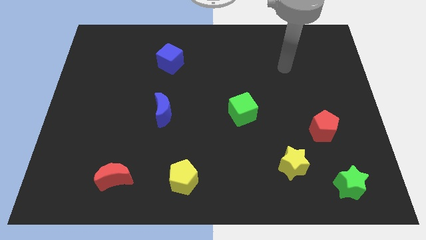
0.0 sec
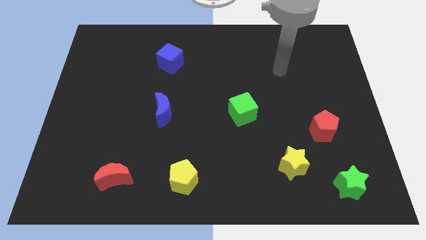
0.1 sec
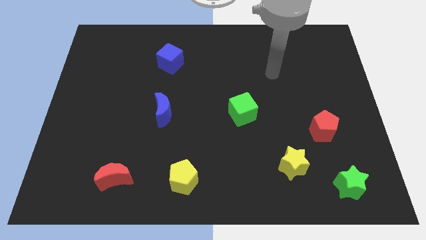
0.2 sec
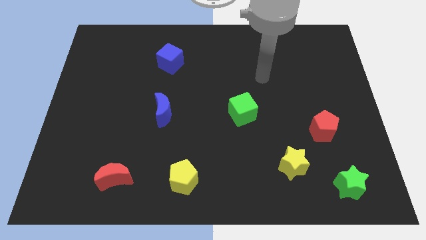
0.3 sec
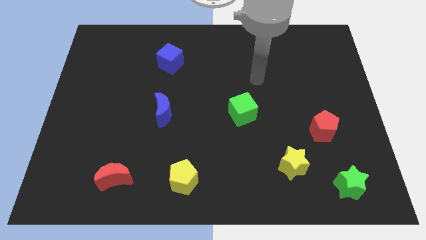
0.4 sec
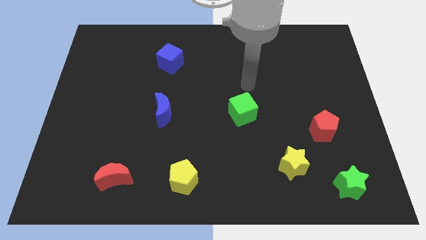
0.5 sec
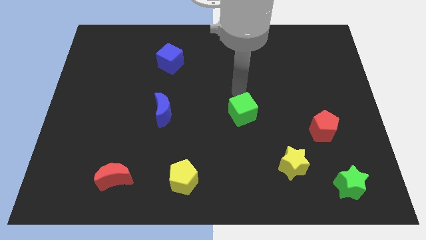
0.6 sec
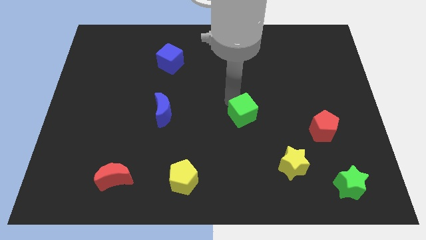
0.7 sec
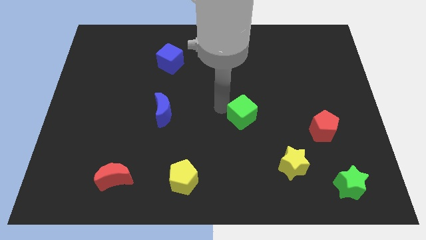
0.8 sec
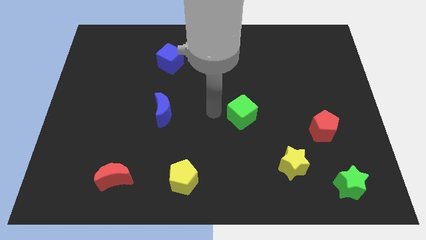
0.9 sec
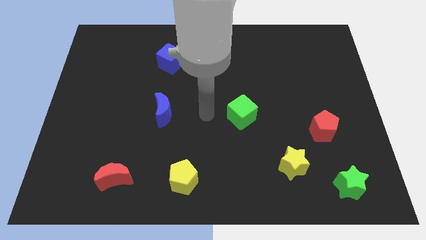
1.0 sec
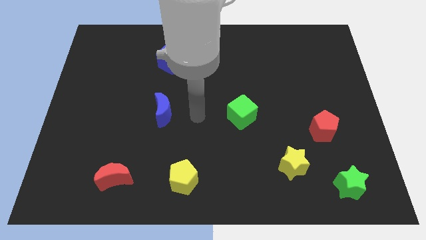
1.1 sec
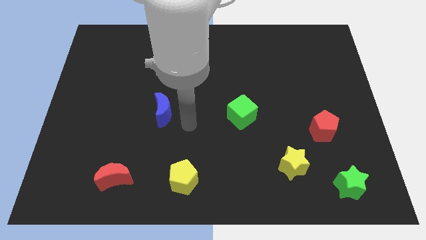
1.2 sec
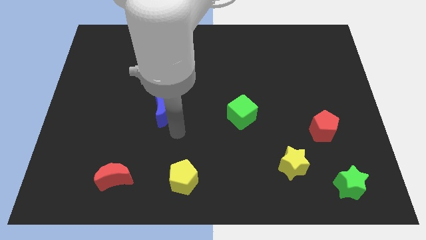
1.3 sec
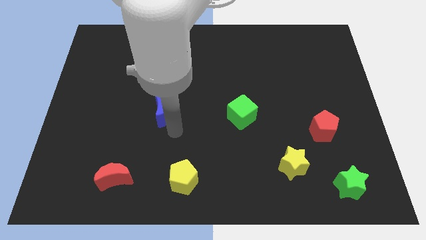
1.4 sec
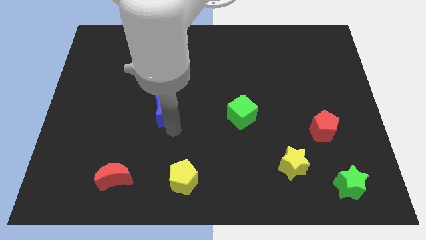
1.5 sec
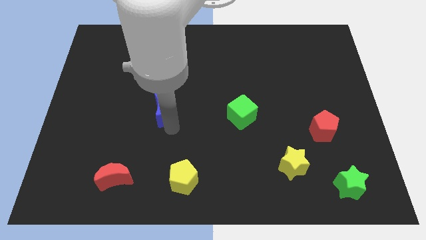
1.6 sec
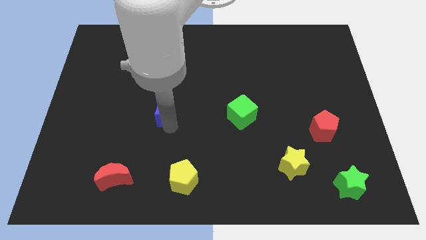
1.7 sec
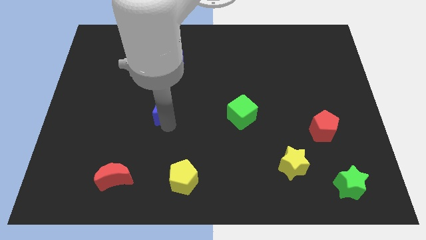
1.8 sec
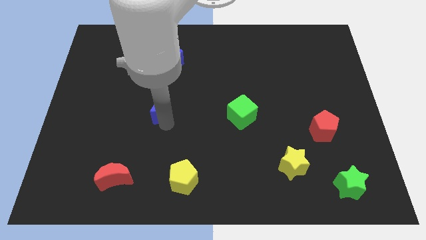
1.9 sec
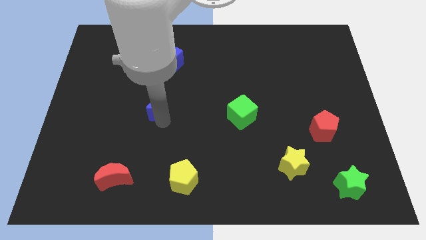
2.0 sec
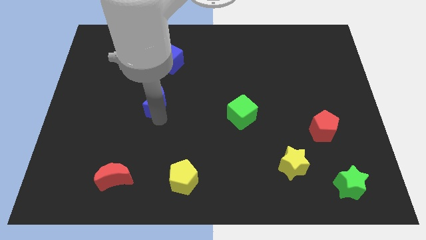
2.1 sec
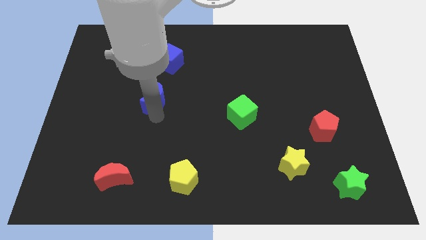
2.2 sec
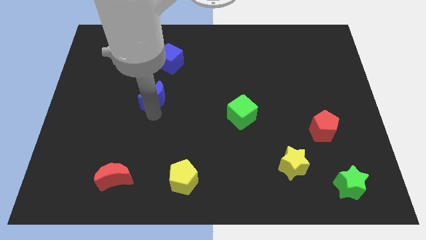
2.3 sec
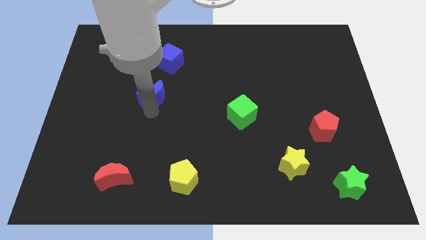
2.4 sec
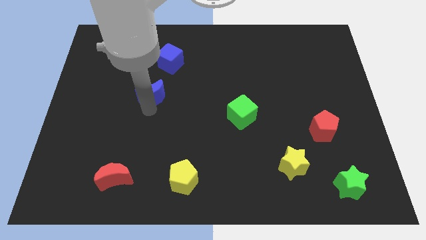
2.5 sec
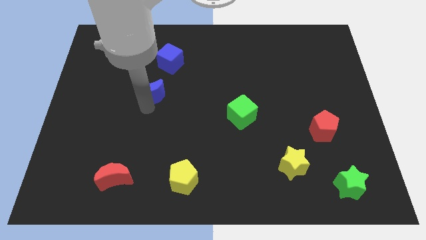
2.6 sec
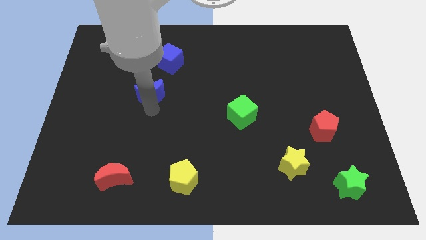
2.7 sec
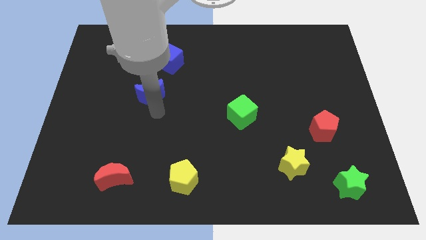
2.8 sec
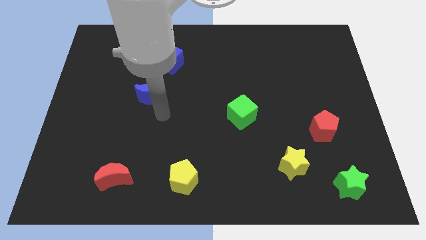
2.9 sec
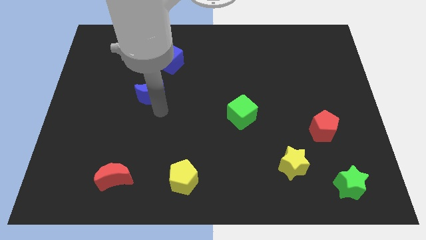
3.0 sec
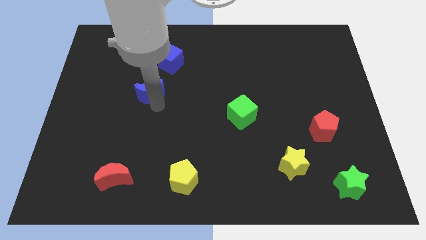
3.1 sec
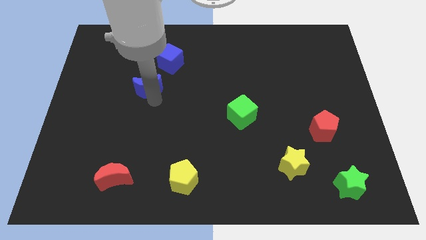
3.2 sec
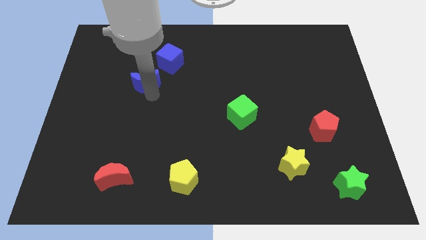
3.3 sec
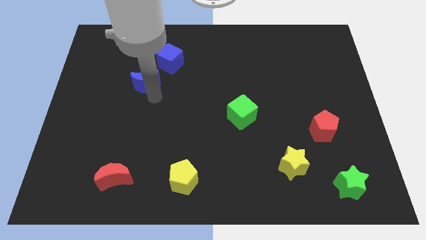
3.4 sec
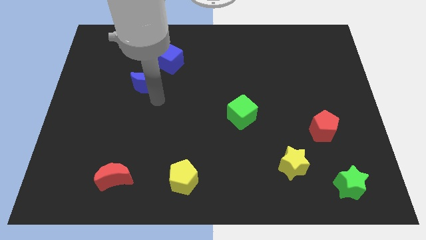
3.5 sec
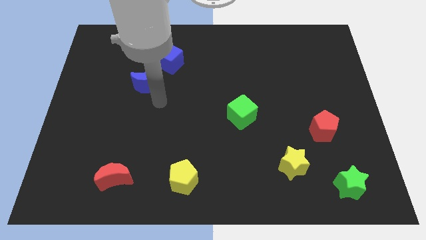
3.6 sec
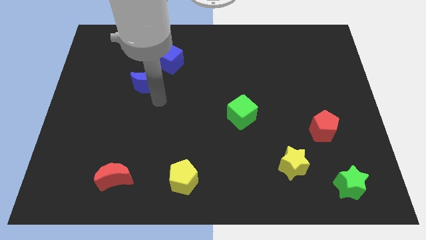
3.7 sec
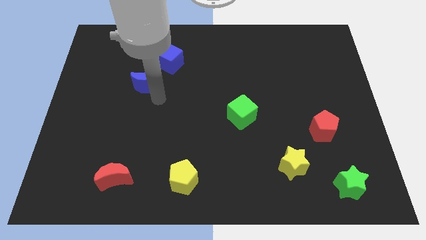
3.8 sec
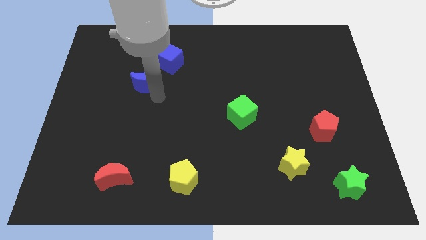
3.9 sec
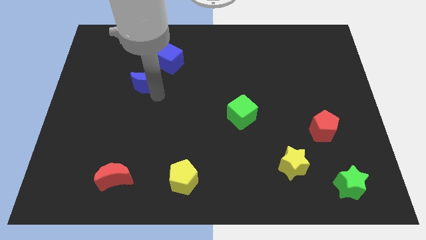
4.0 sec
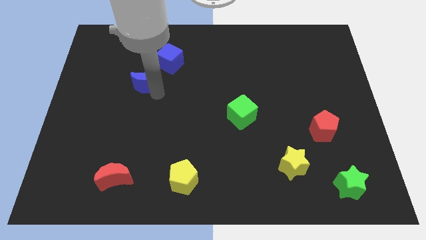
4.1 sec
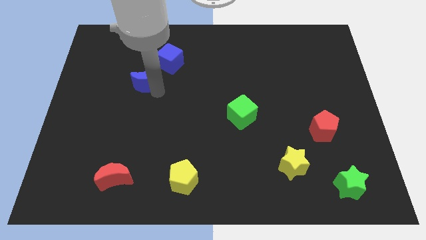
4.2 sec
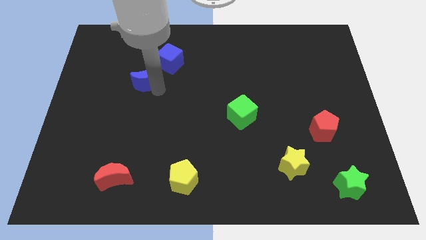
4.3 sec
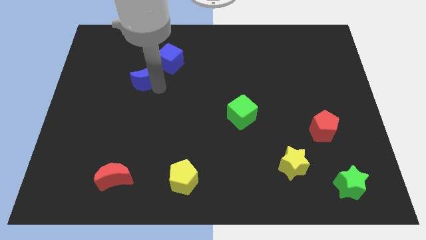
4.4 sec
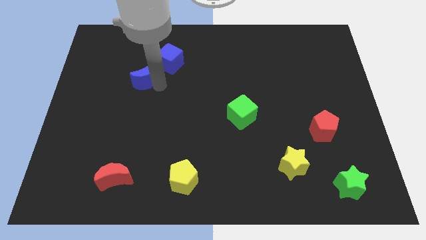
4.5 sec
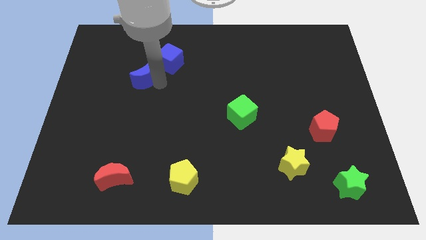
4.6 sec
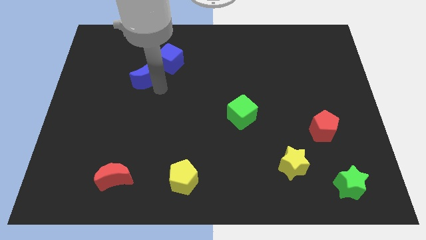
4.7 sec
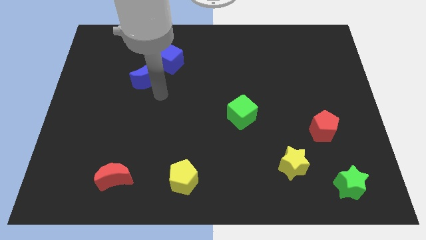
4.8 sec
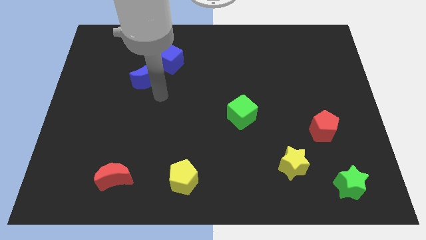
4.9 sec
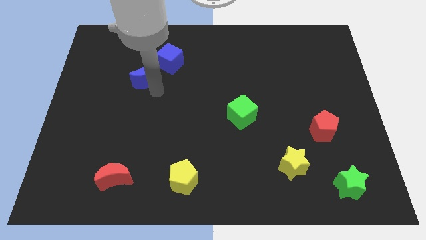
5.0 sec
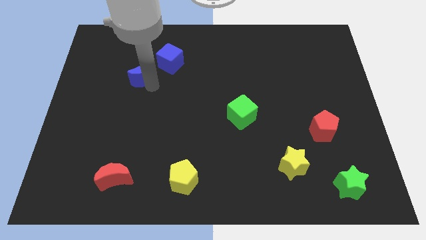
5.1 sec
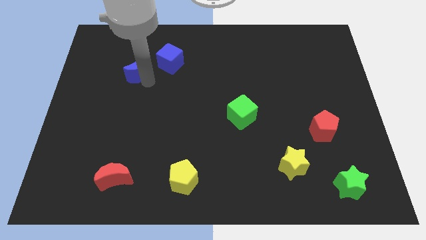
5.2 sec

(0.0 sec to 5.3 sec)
slide the blue moon just left of the blue cube

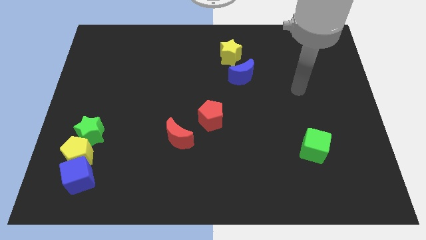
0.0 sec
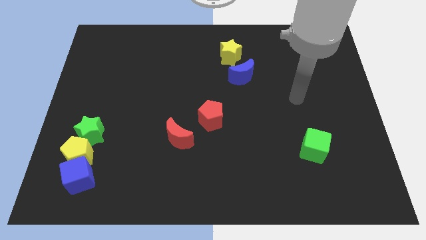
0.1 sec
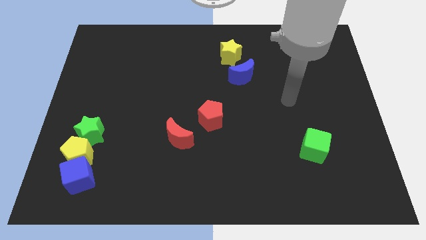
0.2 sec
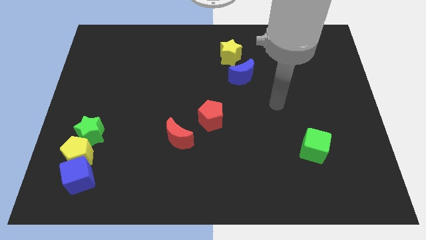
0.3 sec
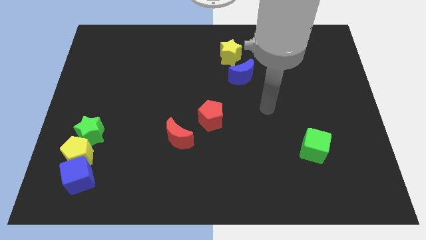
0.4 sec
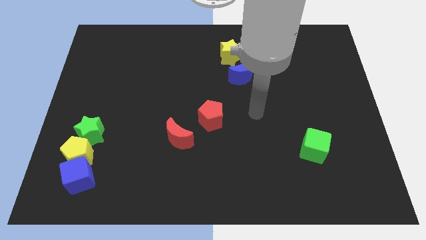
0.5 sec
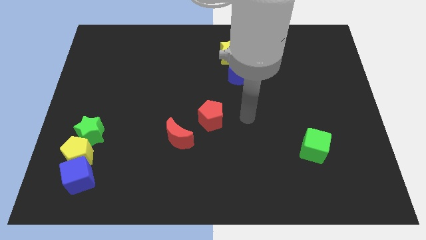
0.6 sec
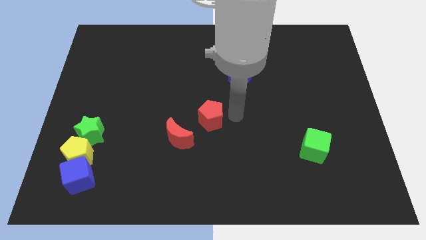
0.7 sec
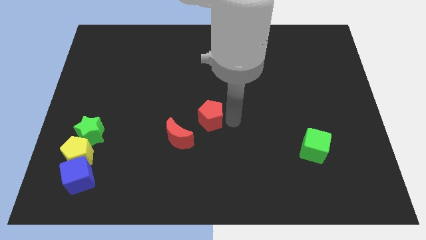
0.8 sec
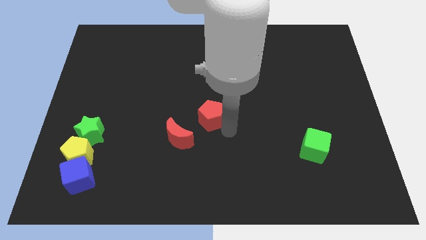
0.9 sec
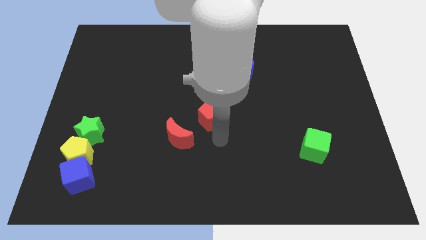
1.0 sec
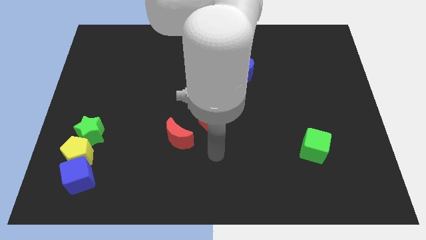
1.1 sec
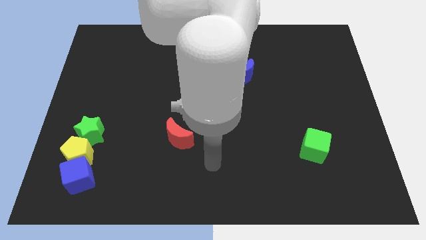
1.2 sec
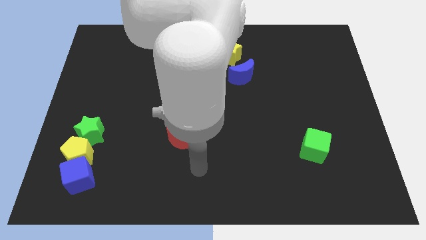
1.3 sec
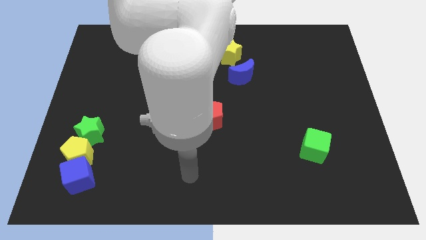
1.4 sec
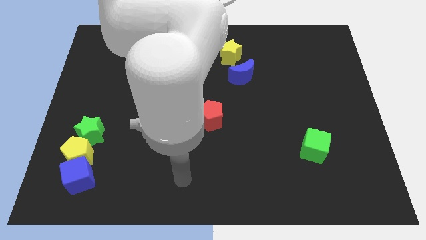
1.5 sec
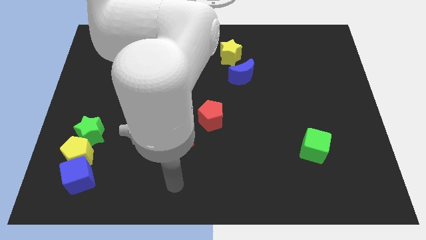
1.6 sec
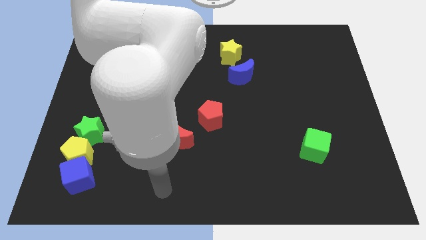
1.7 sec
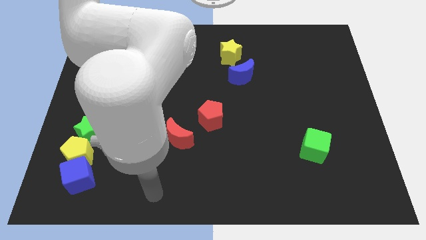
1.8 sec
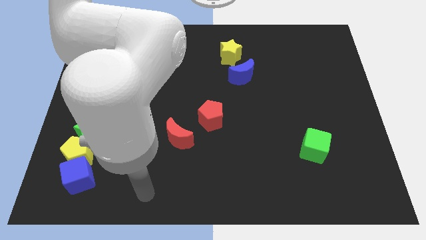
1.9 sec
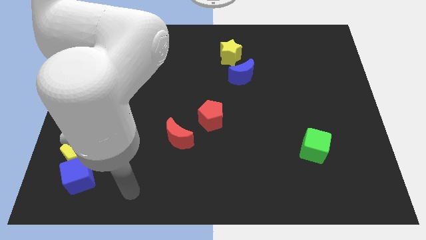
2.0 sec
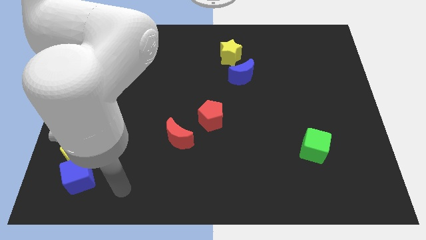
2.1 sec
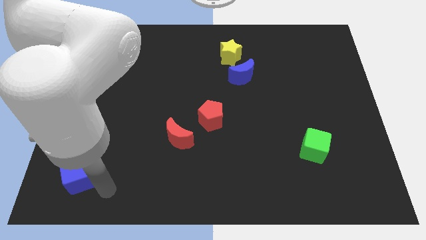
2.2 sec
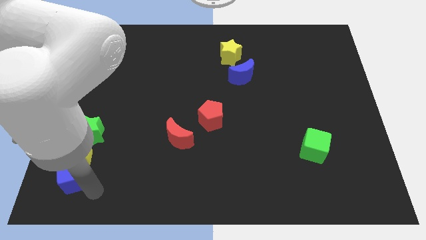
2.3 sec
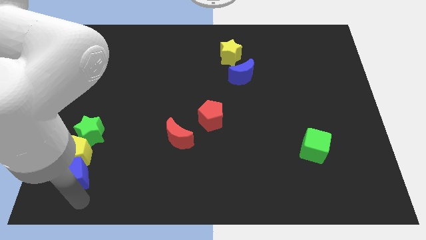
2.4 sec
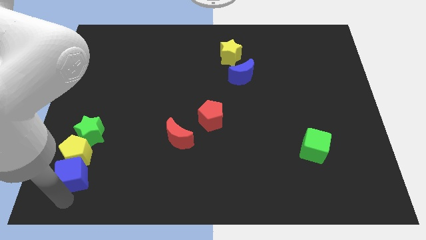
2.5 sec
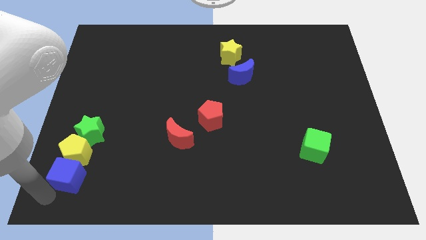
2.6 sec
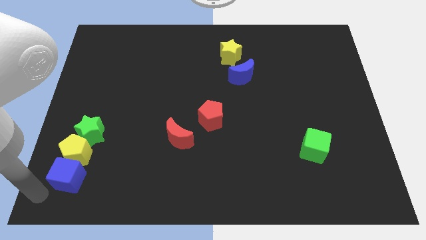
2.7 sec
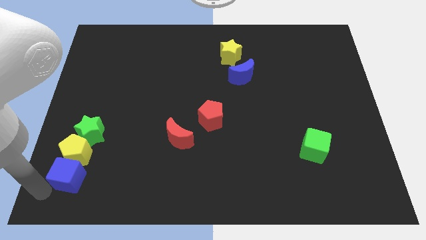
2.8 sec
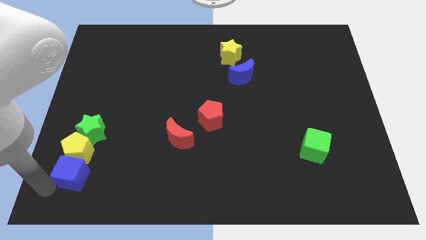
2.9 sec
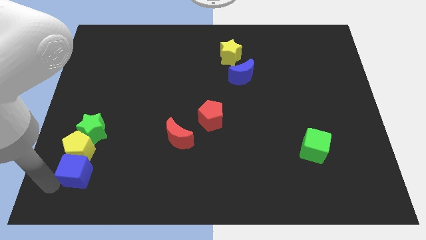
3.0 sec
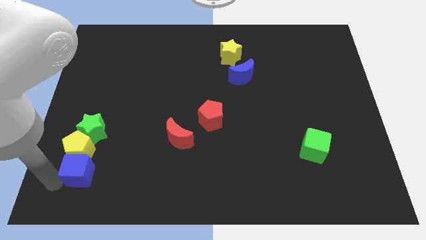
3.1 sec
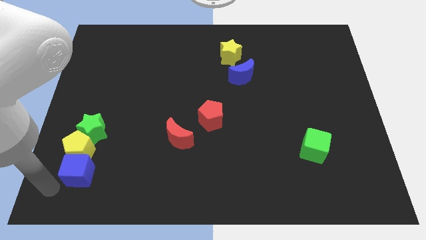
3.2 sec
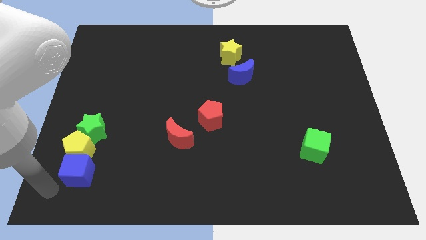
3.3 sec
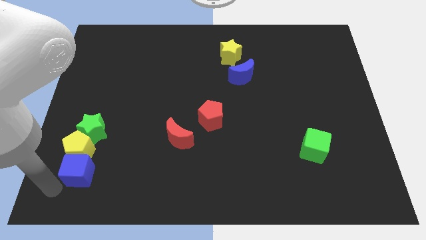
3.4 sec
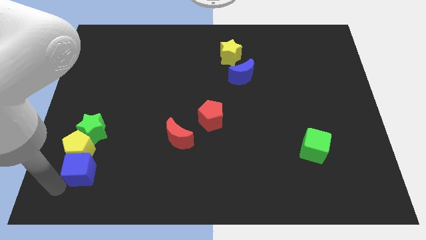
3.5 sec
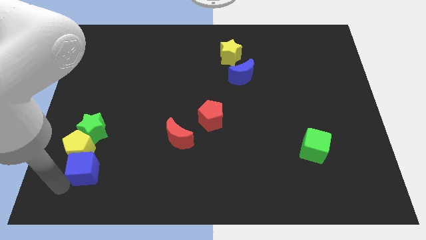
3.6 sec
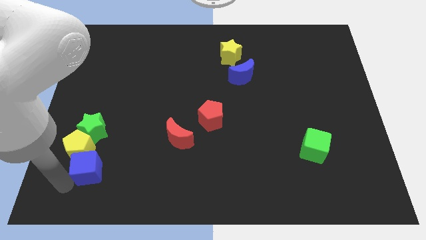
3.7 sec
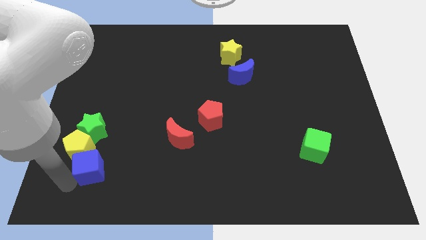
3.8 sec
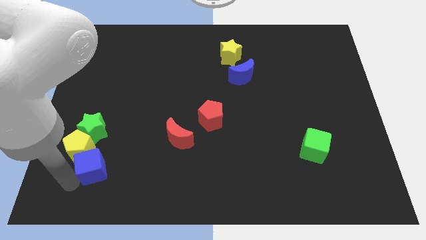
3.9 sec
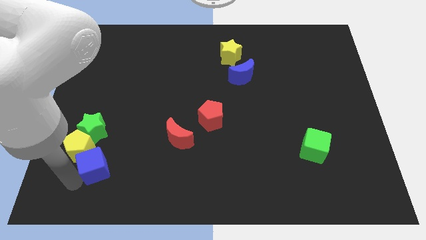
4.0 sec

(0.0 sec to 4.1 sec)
push the blue cube to the right side of the yellow pentagon
